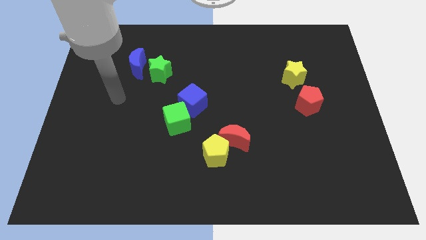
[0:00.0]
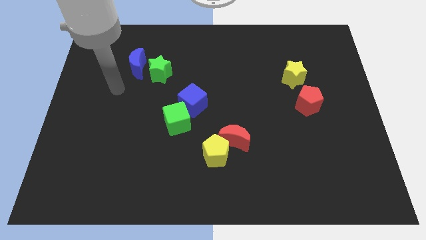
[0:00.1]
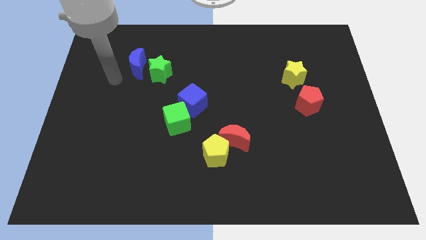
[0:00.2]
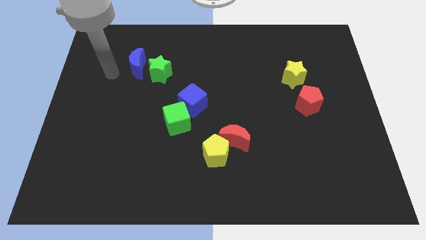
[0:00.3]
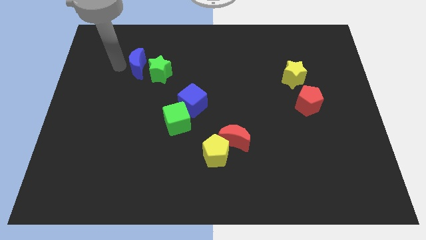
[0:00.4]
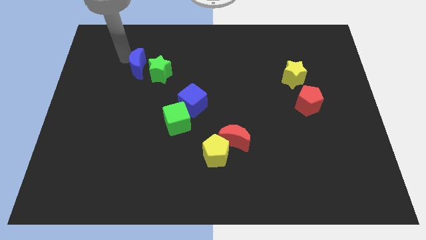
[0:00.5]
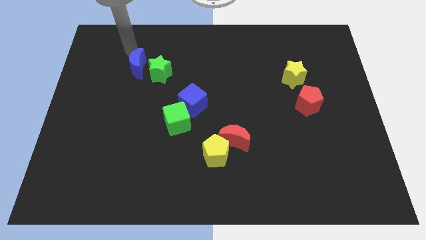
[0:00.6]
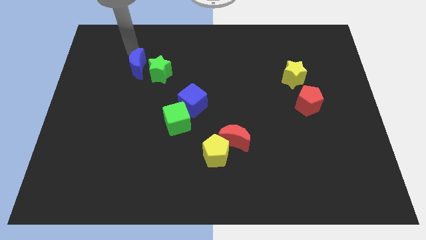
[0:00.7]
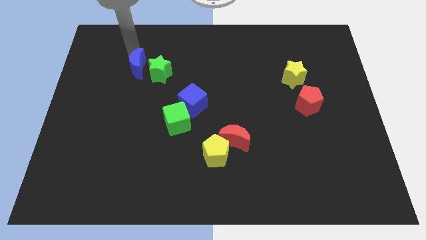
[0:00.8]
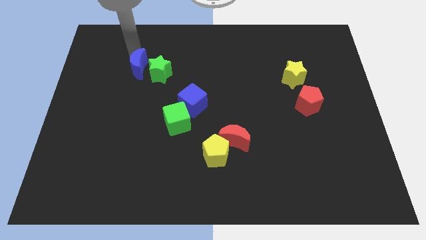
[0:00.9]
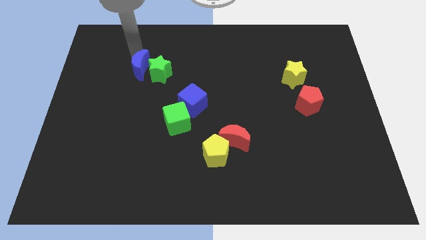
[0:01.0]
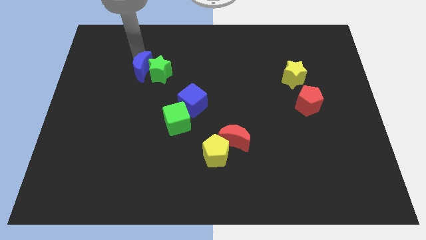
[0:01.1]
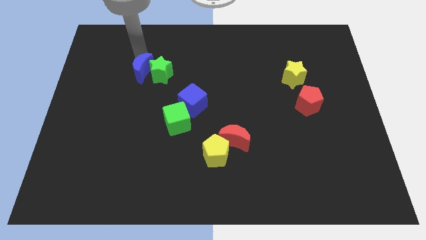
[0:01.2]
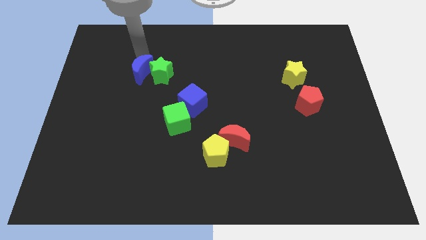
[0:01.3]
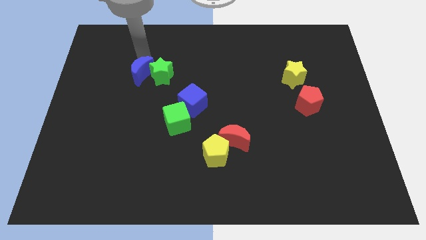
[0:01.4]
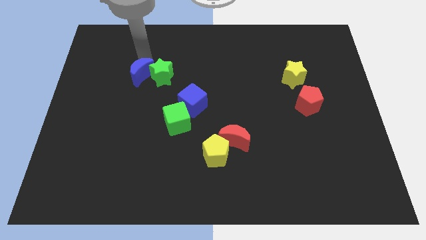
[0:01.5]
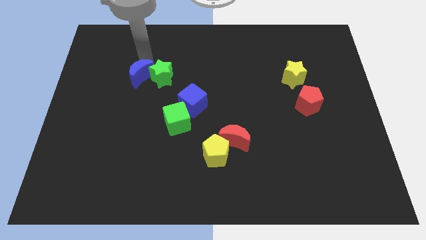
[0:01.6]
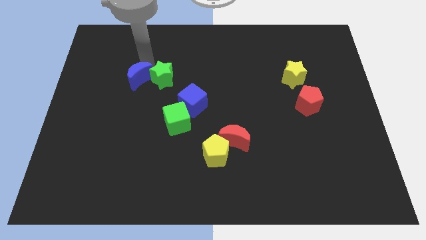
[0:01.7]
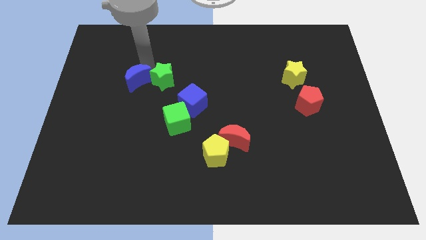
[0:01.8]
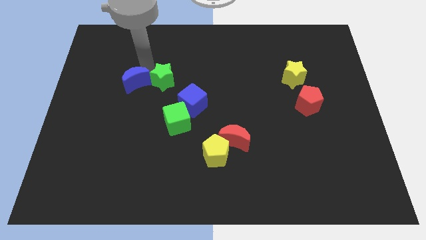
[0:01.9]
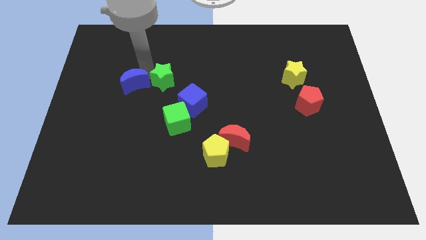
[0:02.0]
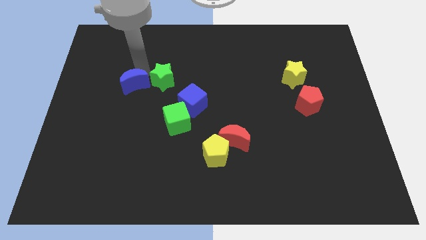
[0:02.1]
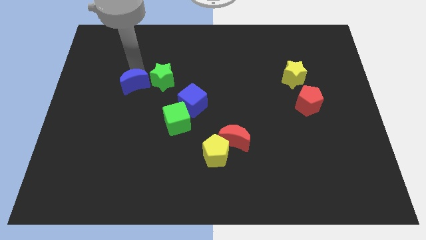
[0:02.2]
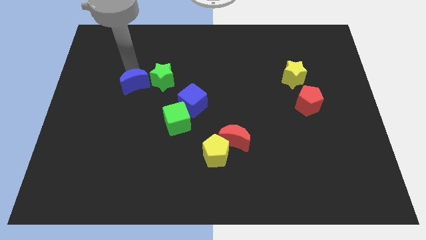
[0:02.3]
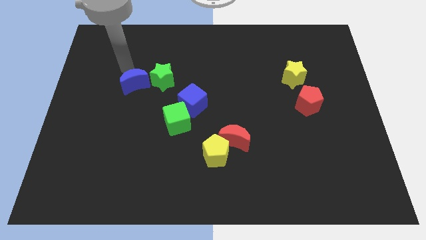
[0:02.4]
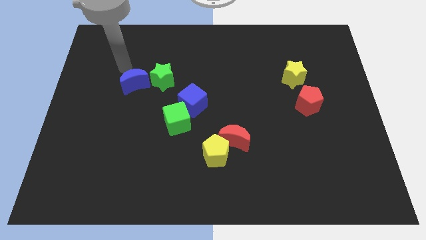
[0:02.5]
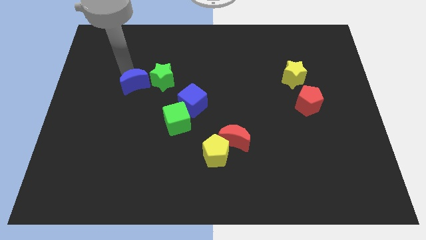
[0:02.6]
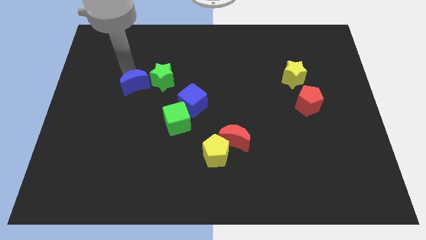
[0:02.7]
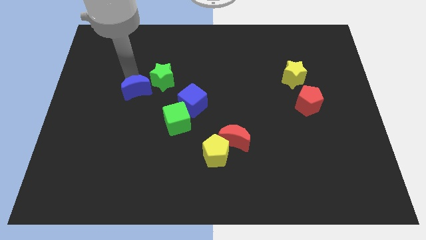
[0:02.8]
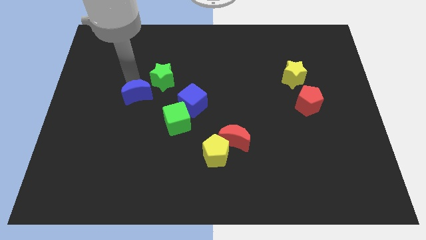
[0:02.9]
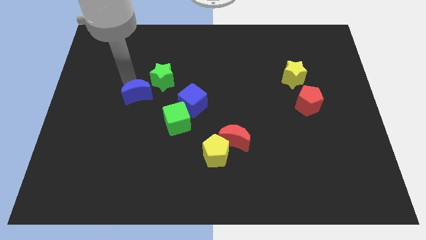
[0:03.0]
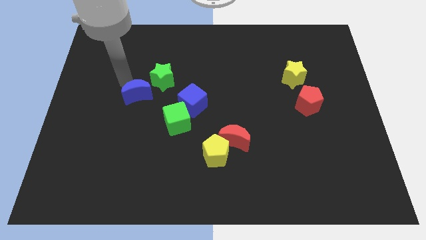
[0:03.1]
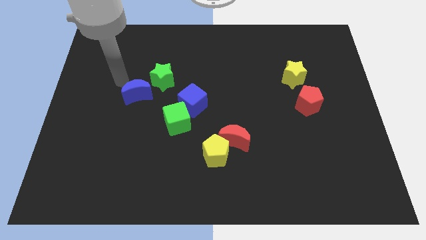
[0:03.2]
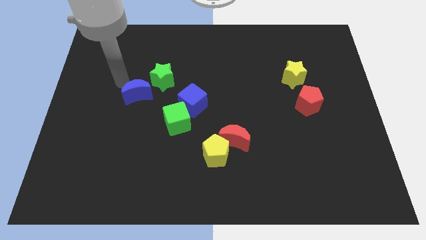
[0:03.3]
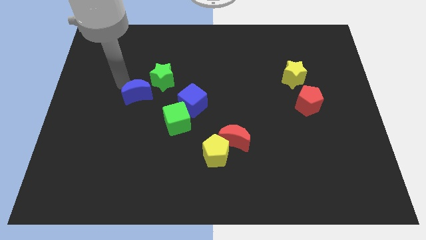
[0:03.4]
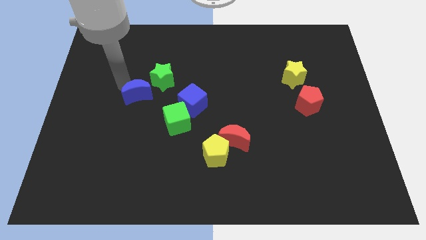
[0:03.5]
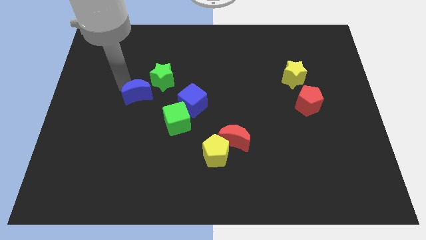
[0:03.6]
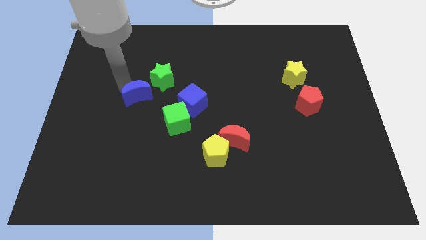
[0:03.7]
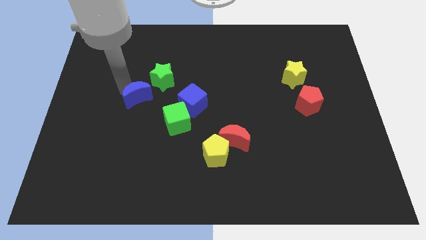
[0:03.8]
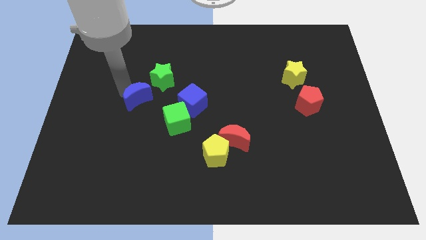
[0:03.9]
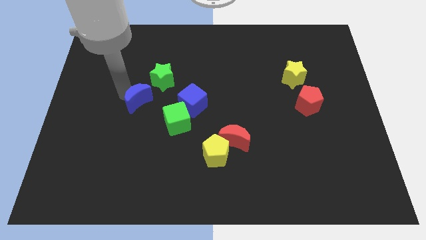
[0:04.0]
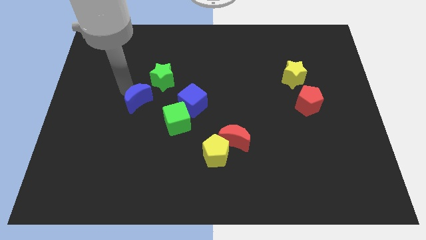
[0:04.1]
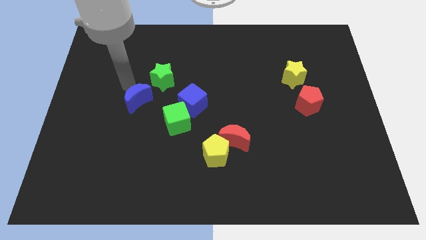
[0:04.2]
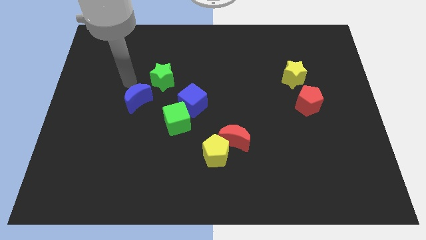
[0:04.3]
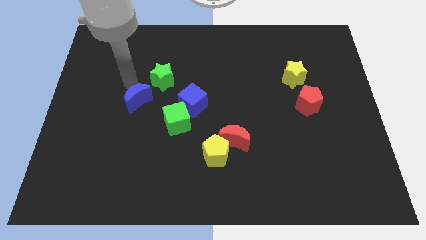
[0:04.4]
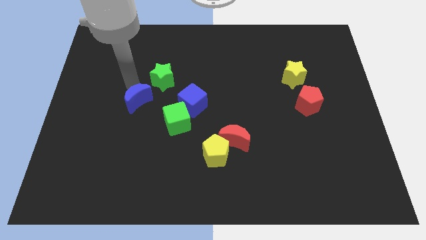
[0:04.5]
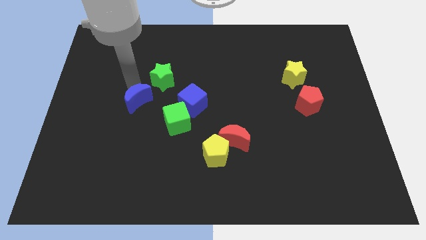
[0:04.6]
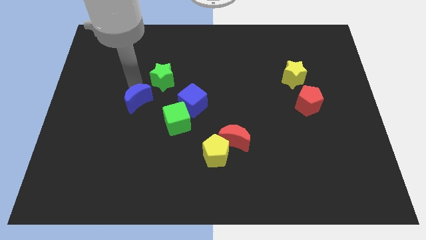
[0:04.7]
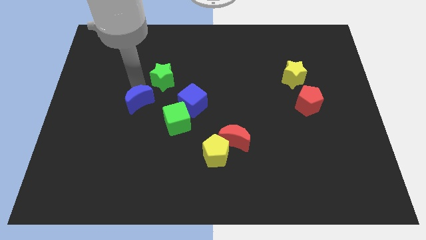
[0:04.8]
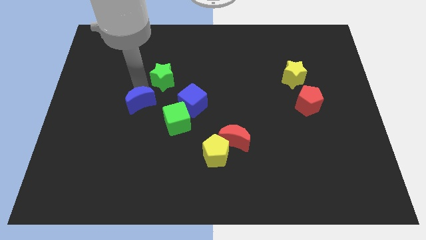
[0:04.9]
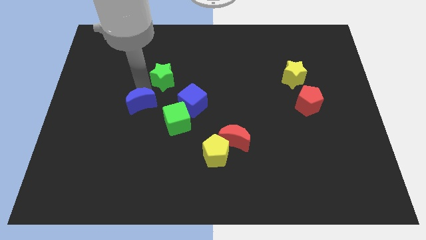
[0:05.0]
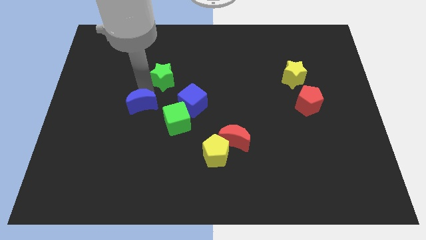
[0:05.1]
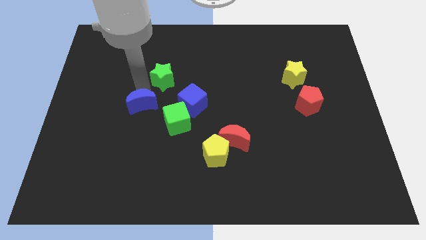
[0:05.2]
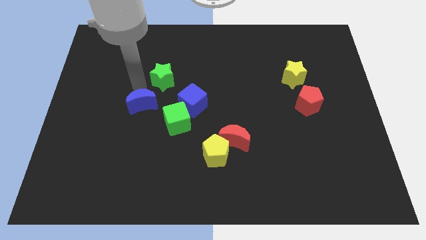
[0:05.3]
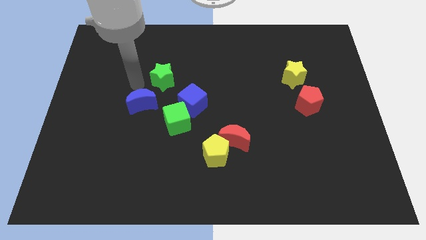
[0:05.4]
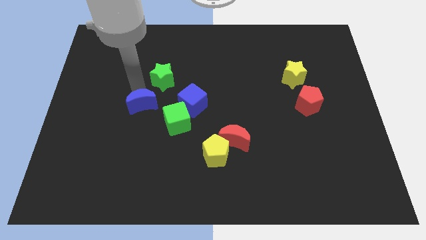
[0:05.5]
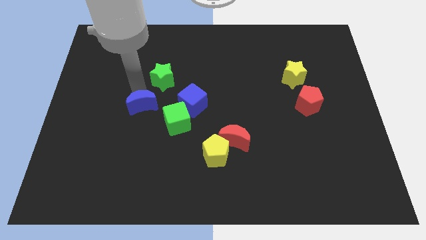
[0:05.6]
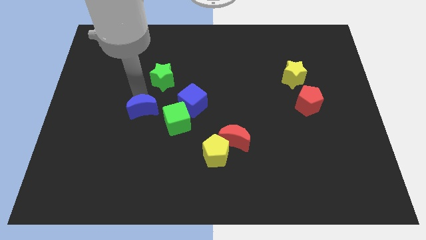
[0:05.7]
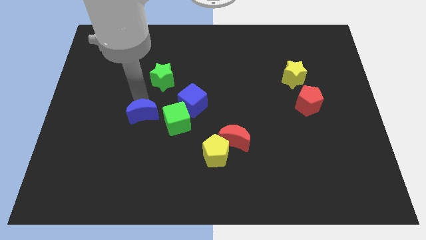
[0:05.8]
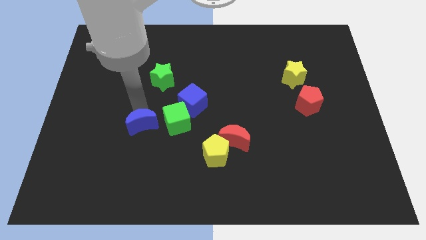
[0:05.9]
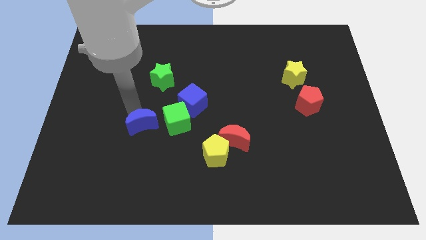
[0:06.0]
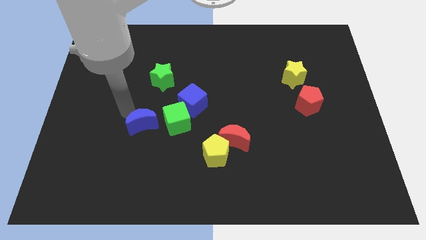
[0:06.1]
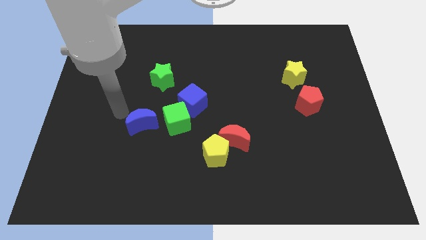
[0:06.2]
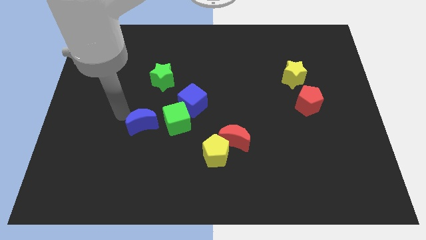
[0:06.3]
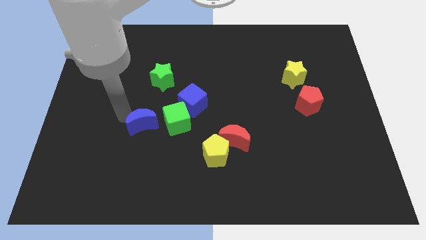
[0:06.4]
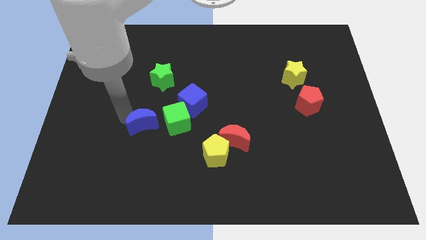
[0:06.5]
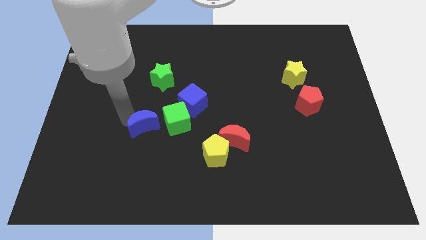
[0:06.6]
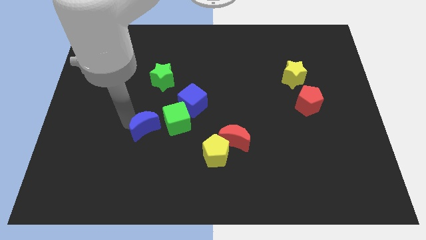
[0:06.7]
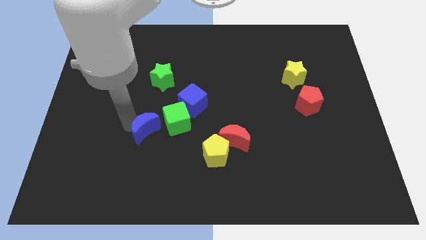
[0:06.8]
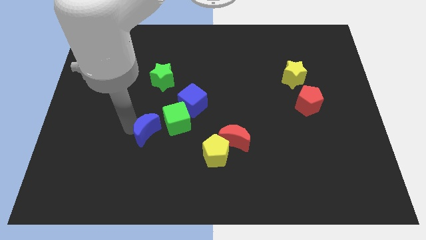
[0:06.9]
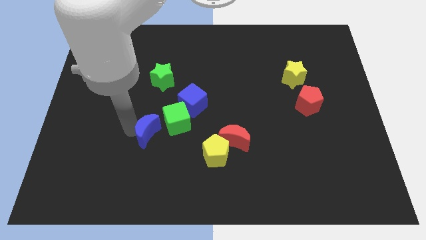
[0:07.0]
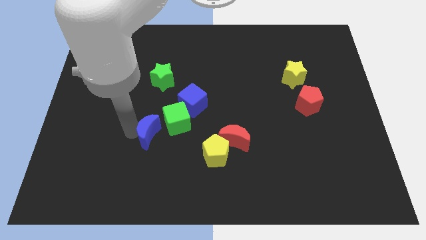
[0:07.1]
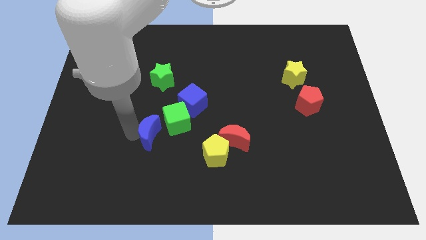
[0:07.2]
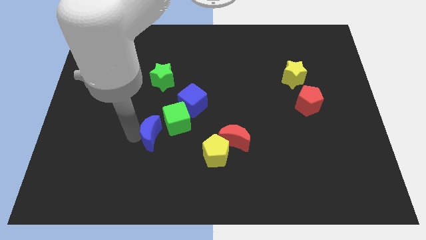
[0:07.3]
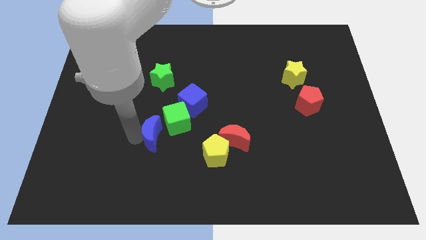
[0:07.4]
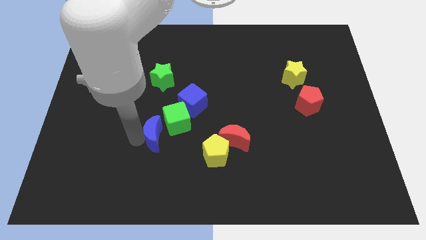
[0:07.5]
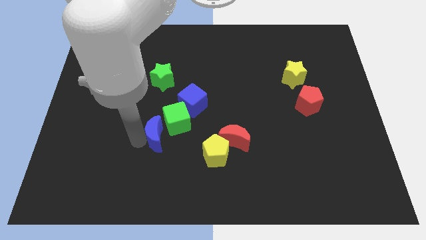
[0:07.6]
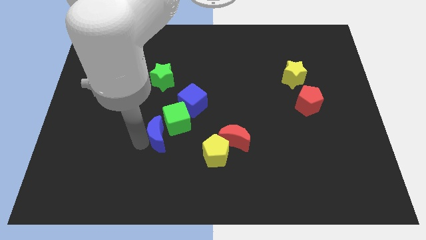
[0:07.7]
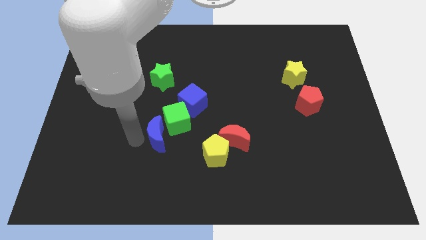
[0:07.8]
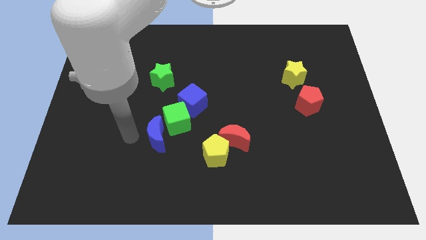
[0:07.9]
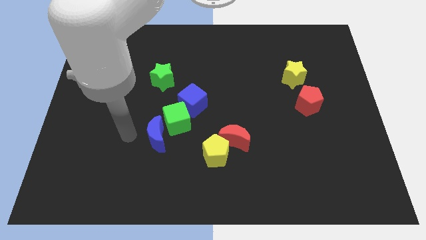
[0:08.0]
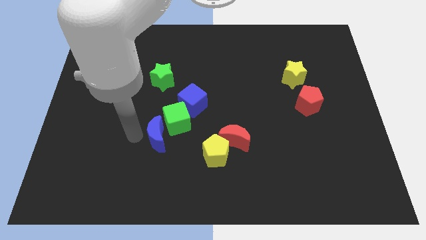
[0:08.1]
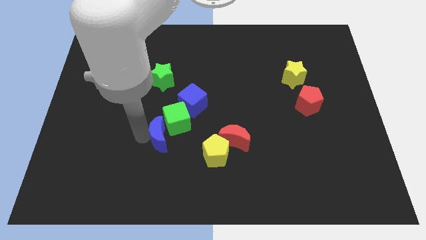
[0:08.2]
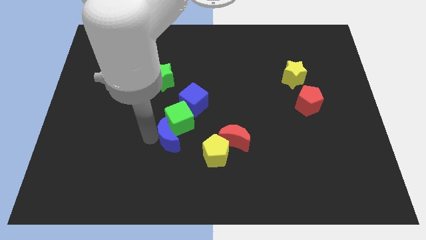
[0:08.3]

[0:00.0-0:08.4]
put the blue moon just left of the red moon
